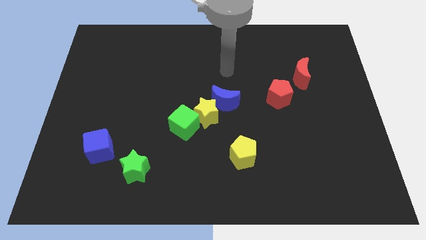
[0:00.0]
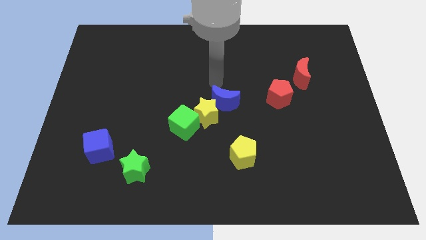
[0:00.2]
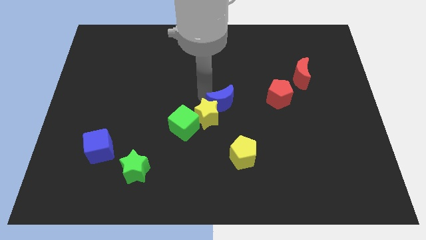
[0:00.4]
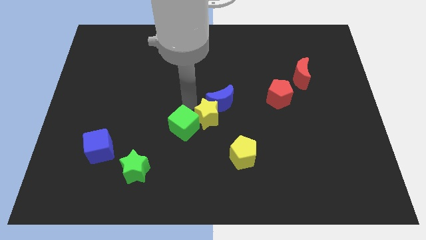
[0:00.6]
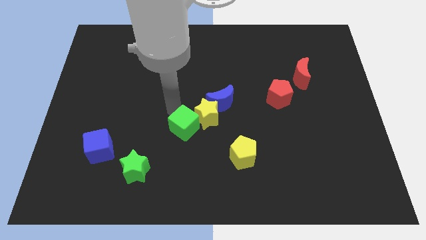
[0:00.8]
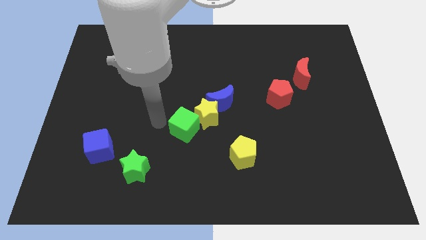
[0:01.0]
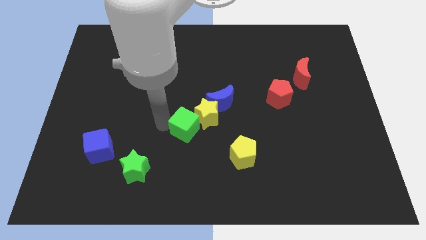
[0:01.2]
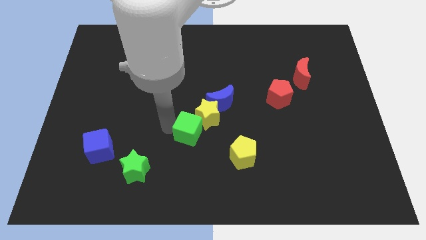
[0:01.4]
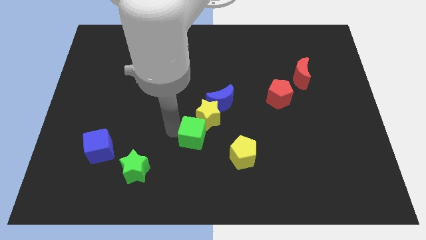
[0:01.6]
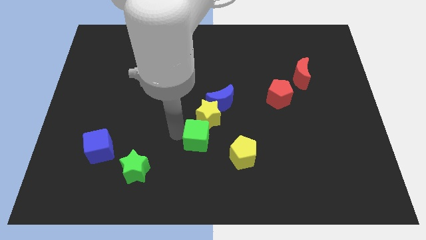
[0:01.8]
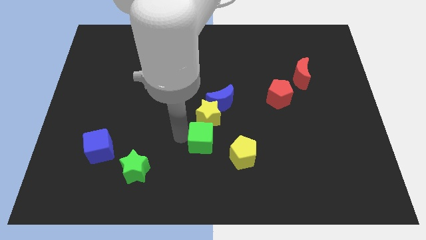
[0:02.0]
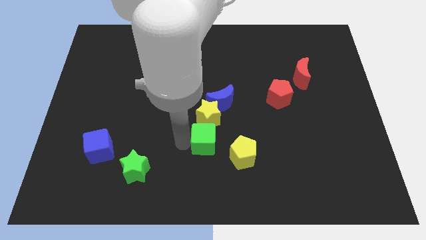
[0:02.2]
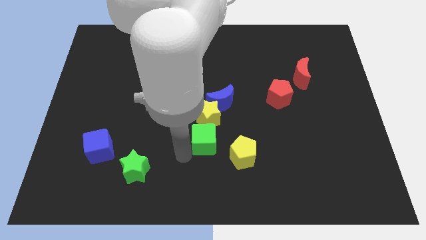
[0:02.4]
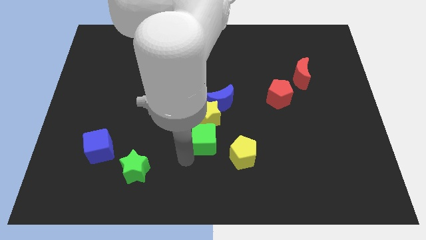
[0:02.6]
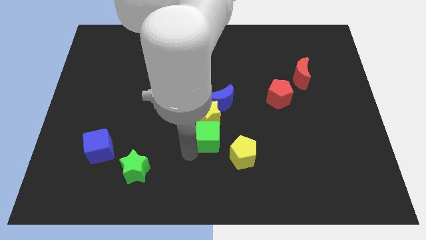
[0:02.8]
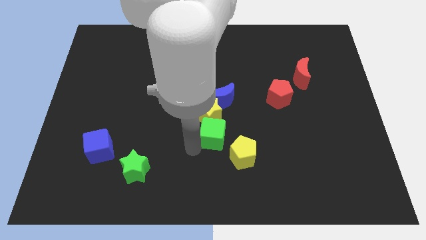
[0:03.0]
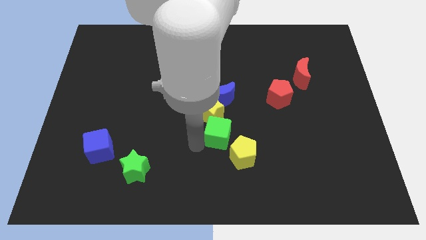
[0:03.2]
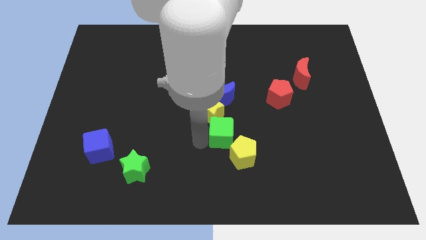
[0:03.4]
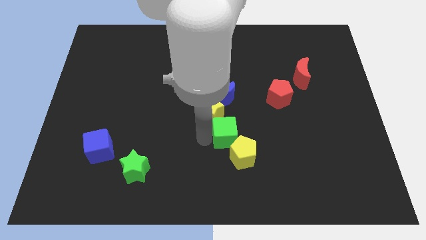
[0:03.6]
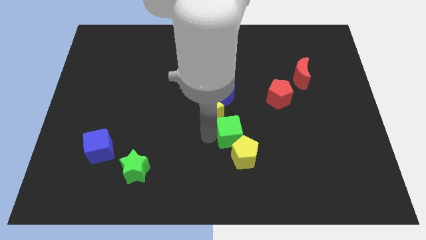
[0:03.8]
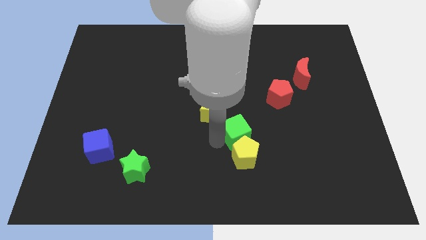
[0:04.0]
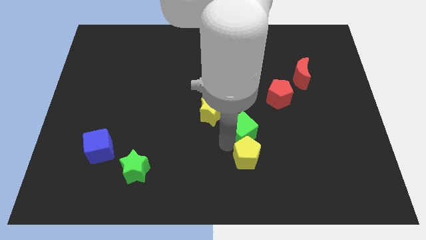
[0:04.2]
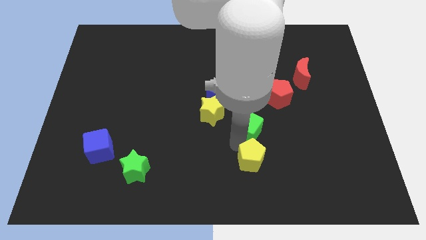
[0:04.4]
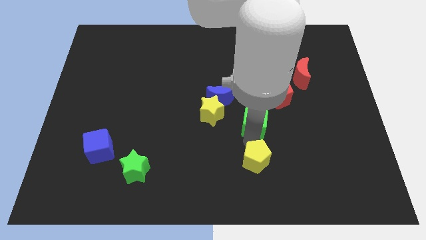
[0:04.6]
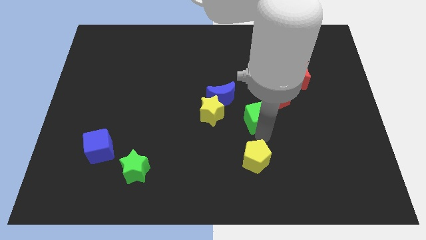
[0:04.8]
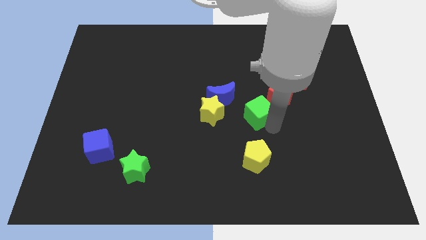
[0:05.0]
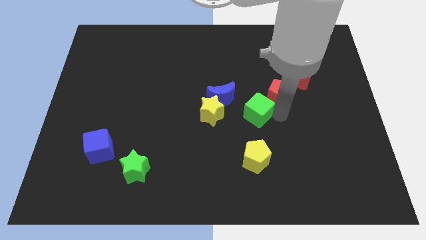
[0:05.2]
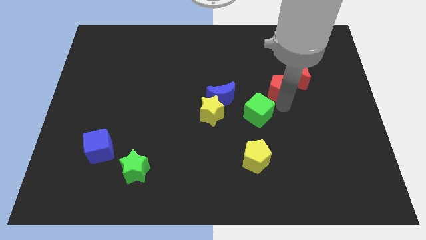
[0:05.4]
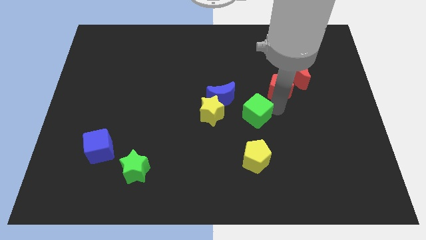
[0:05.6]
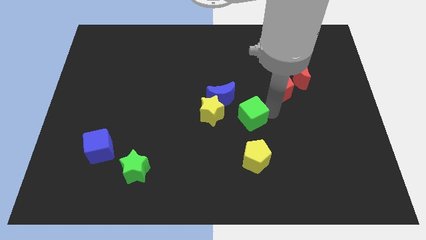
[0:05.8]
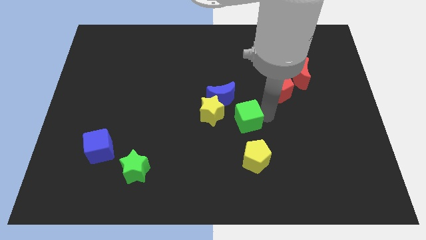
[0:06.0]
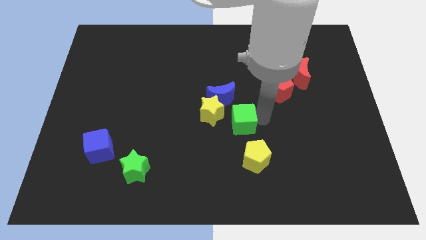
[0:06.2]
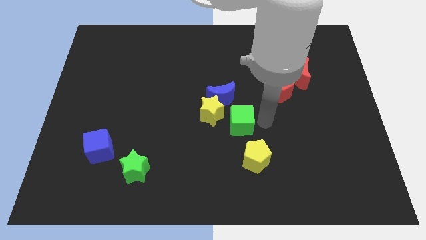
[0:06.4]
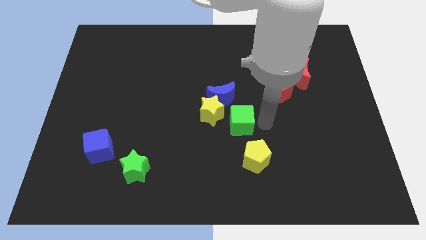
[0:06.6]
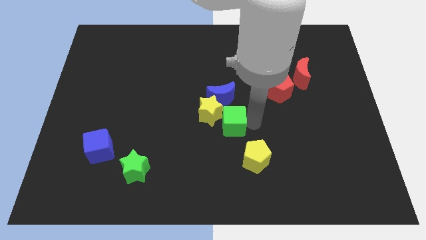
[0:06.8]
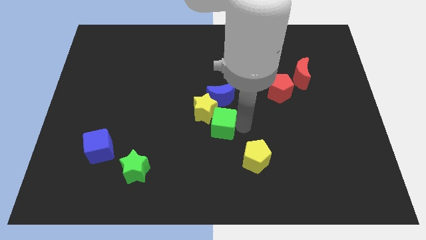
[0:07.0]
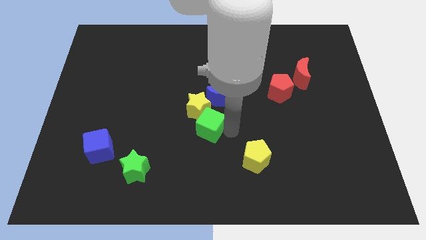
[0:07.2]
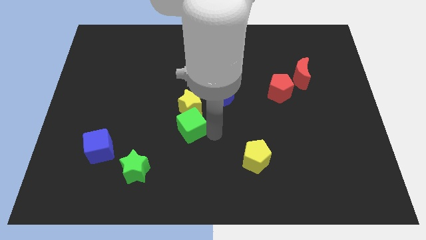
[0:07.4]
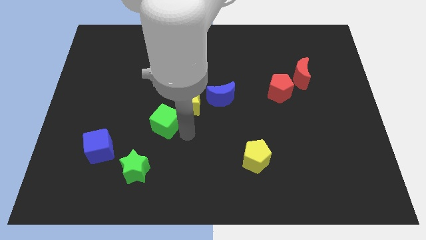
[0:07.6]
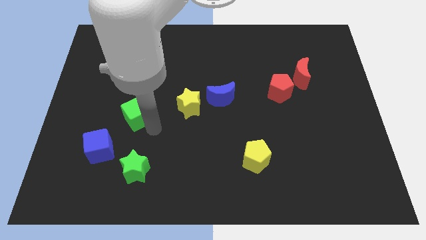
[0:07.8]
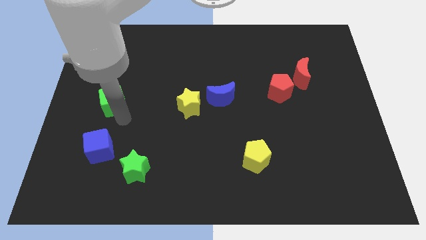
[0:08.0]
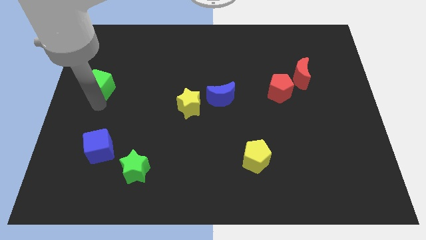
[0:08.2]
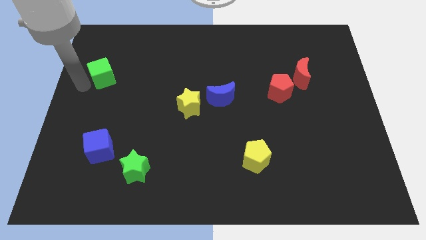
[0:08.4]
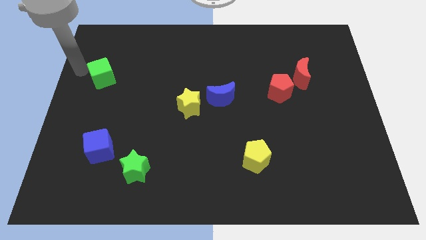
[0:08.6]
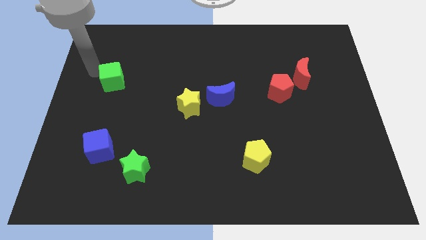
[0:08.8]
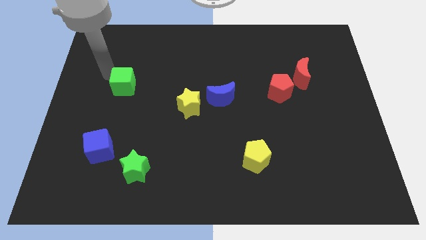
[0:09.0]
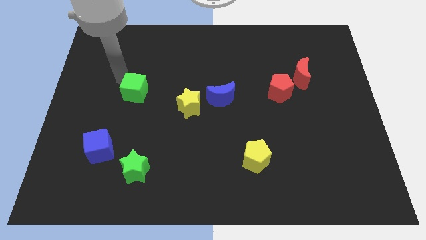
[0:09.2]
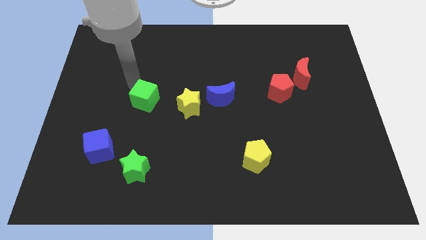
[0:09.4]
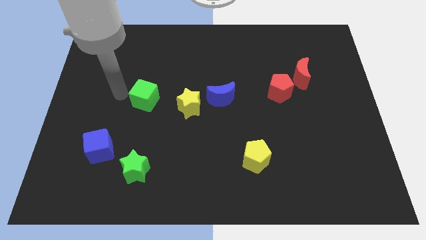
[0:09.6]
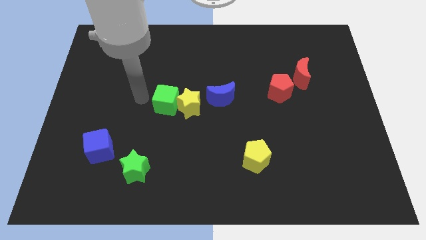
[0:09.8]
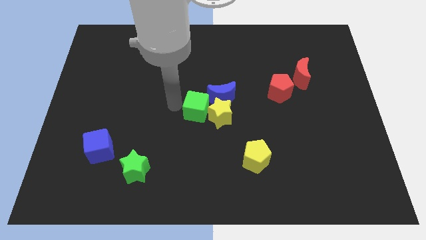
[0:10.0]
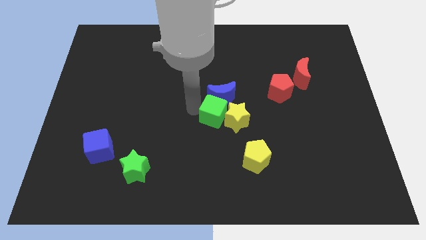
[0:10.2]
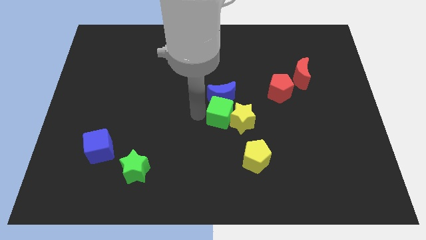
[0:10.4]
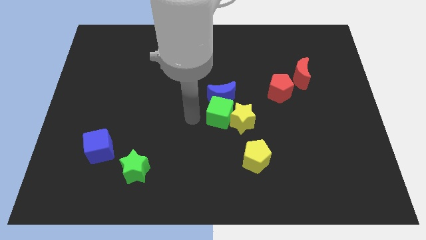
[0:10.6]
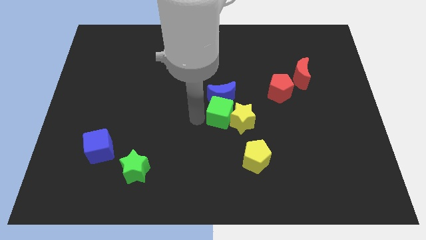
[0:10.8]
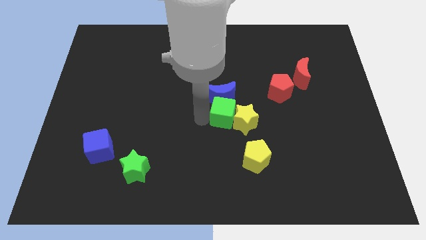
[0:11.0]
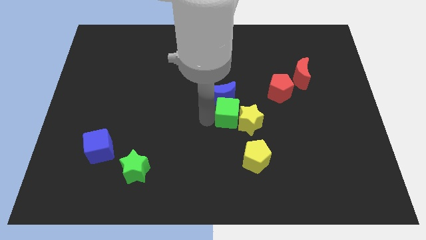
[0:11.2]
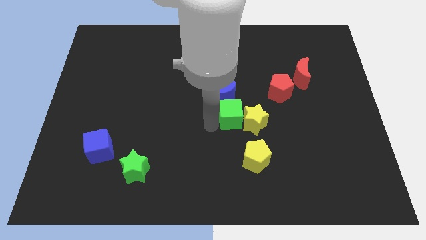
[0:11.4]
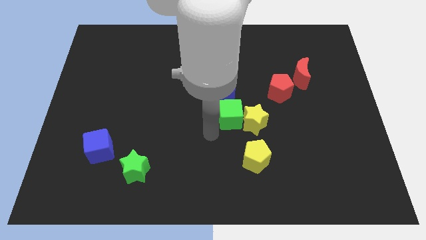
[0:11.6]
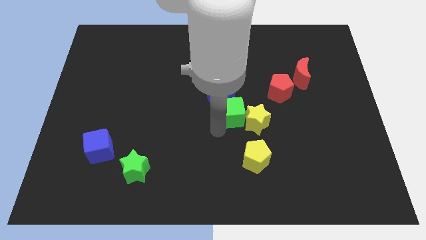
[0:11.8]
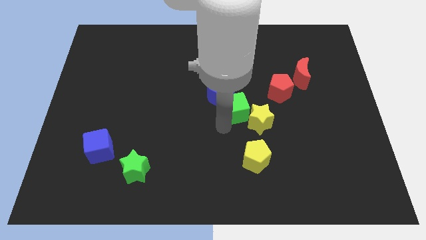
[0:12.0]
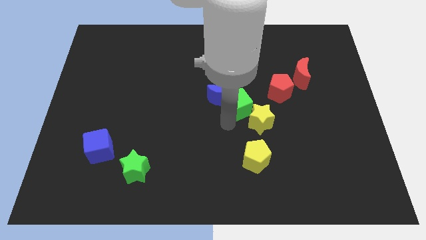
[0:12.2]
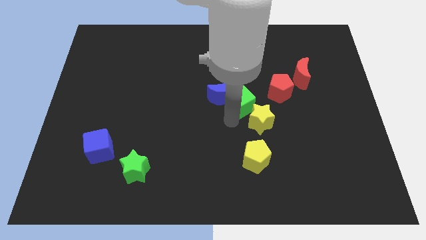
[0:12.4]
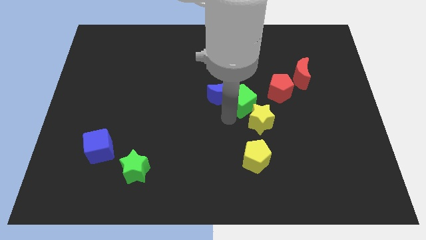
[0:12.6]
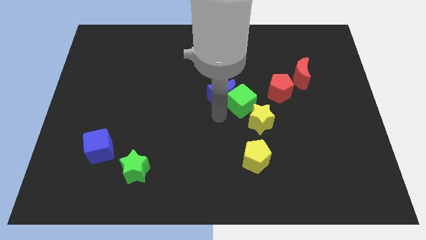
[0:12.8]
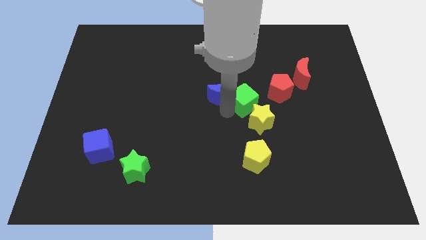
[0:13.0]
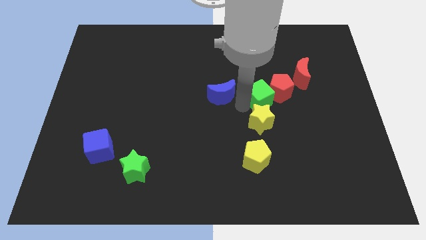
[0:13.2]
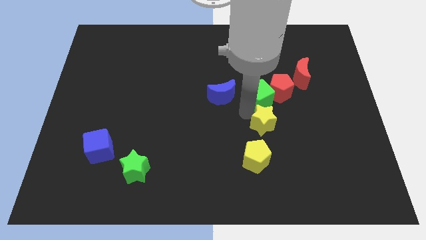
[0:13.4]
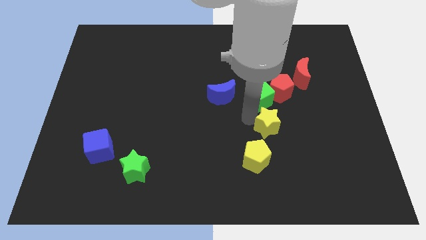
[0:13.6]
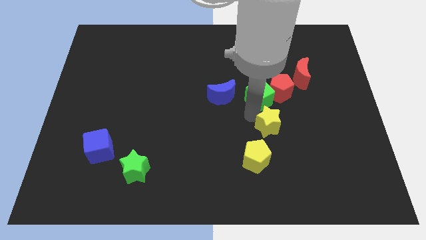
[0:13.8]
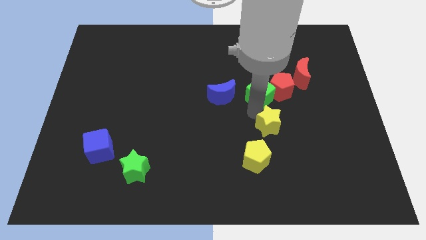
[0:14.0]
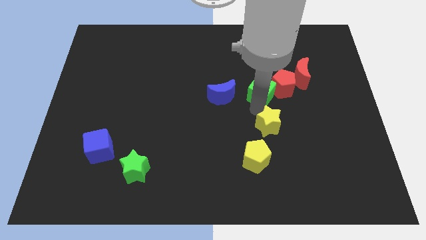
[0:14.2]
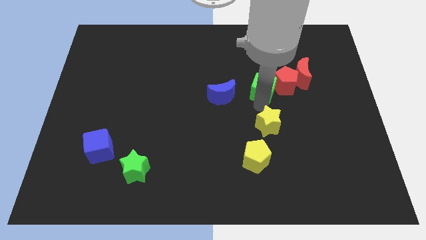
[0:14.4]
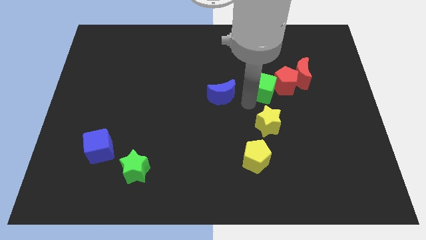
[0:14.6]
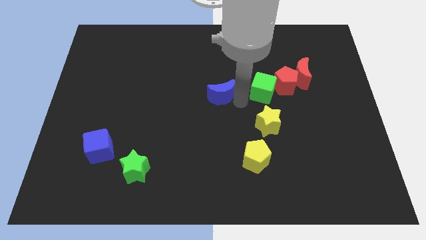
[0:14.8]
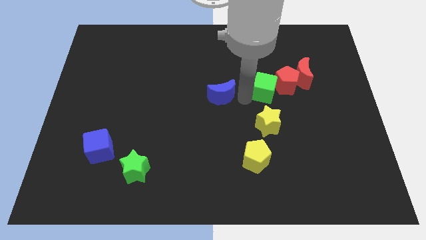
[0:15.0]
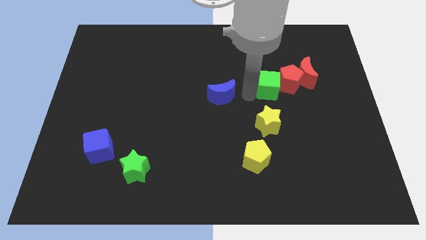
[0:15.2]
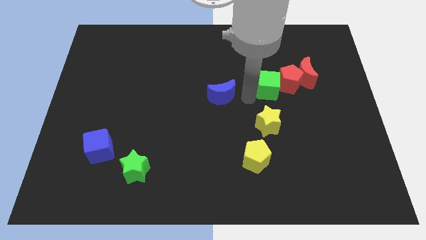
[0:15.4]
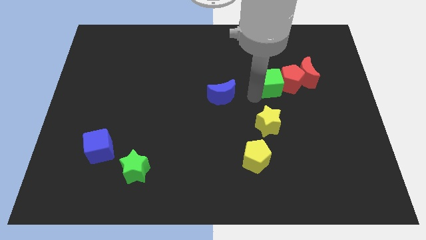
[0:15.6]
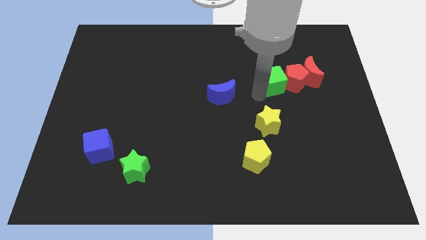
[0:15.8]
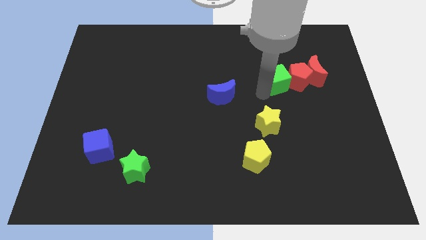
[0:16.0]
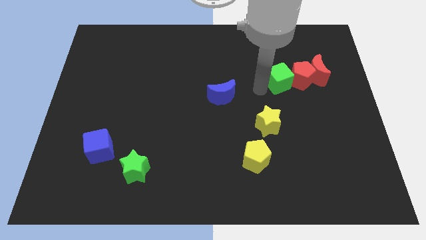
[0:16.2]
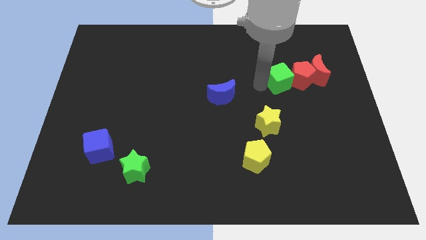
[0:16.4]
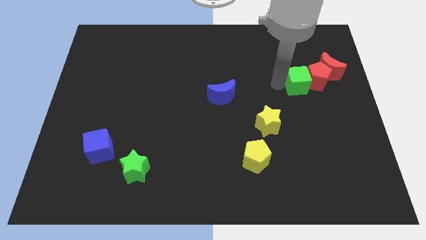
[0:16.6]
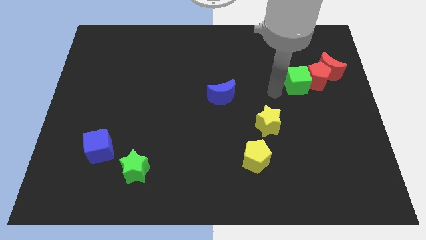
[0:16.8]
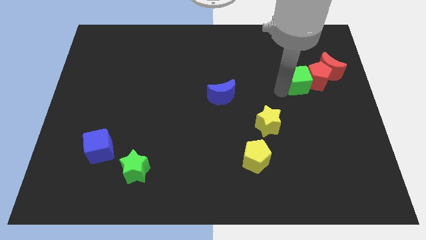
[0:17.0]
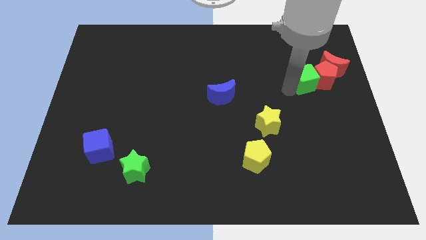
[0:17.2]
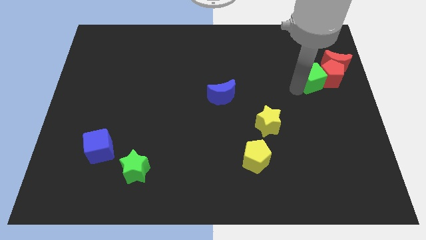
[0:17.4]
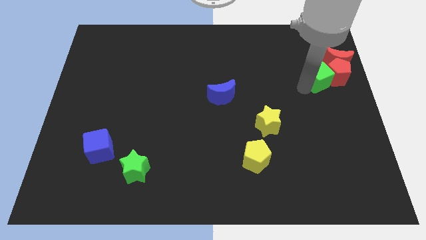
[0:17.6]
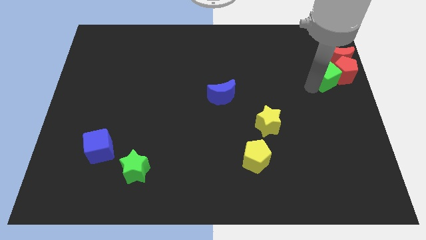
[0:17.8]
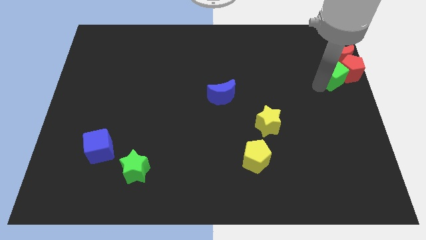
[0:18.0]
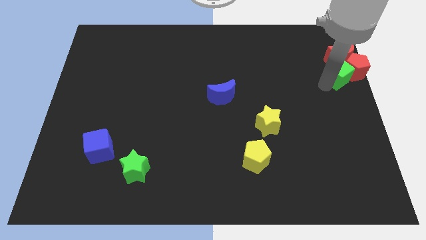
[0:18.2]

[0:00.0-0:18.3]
push the green cube next to the red moon
